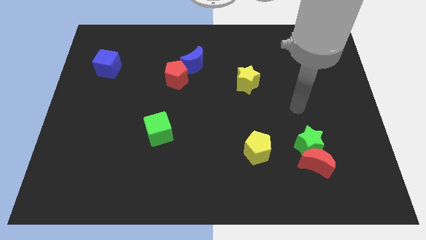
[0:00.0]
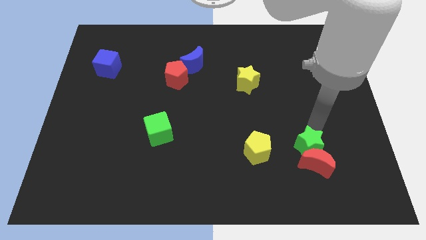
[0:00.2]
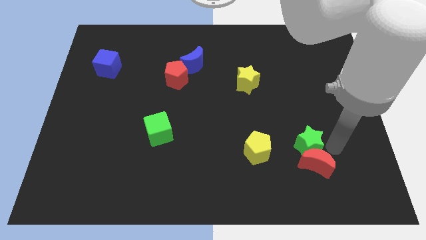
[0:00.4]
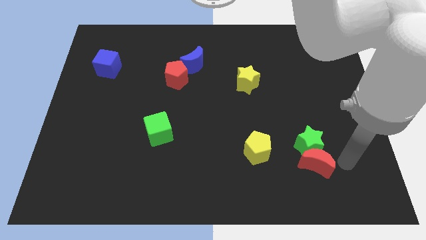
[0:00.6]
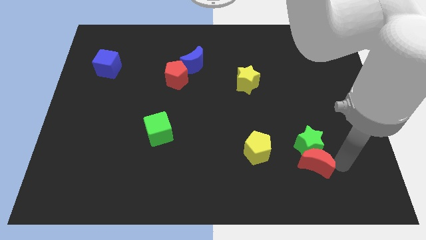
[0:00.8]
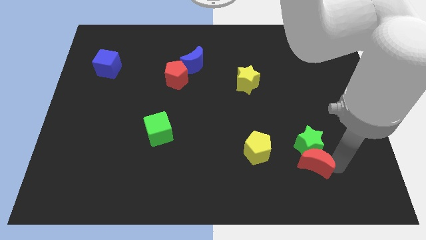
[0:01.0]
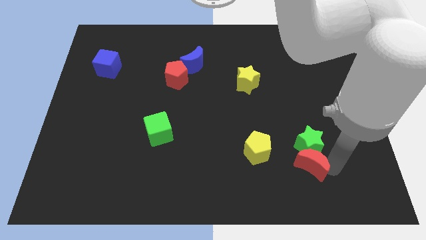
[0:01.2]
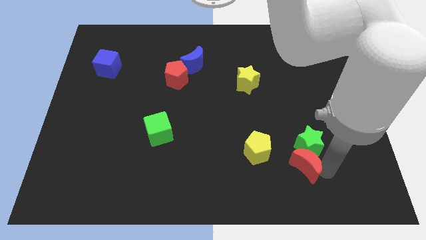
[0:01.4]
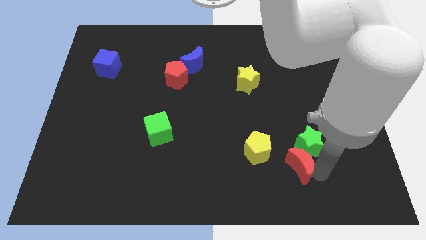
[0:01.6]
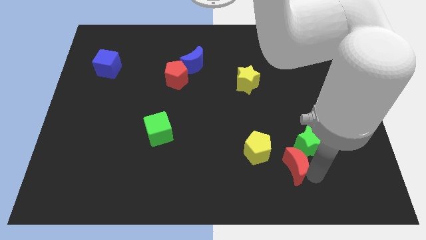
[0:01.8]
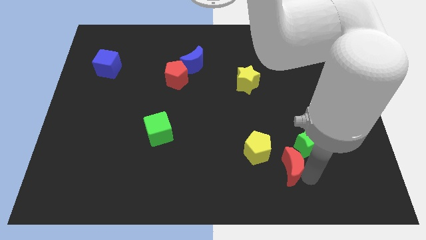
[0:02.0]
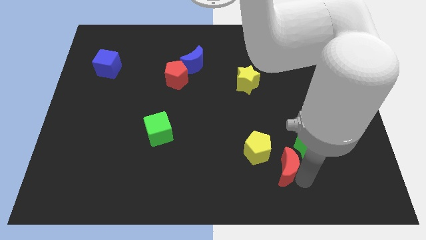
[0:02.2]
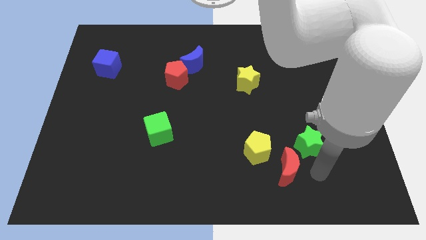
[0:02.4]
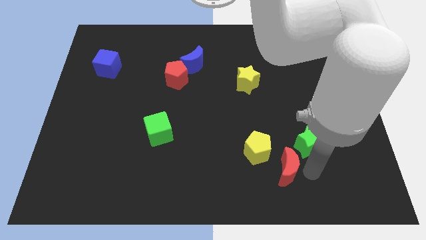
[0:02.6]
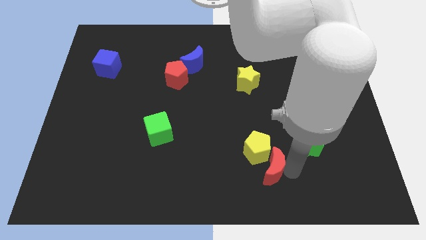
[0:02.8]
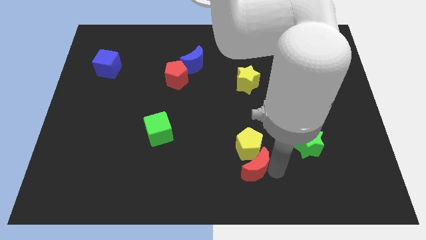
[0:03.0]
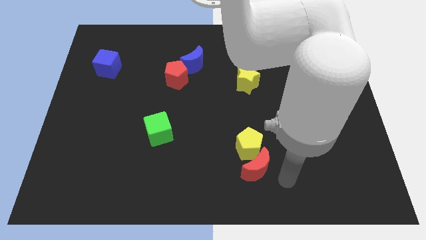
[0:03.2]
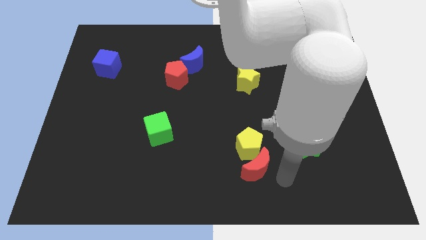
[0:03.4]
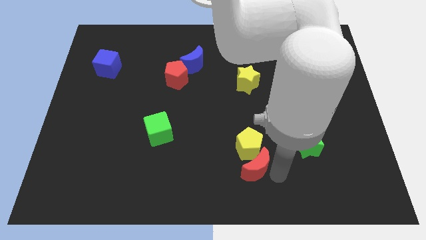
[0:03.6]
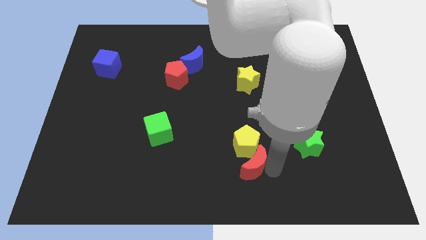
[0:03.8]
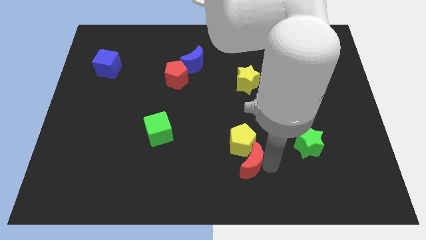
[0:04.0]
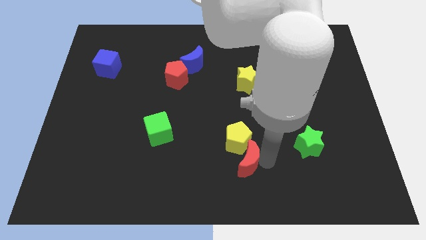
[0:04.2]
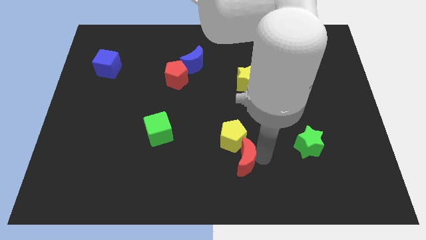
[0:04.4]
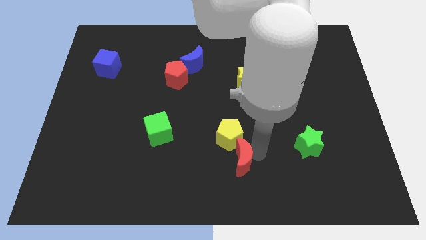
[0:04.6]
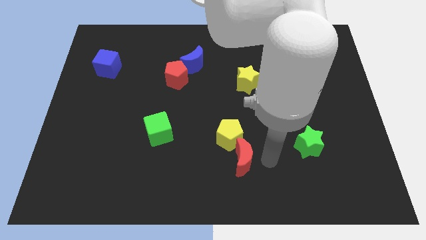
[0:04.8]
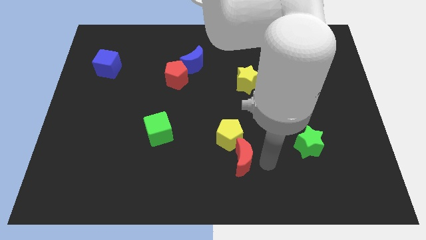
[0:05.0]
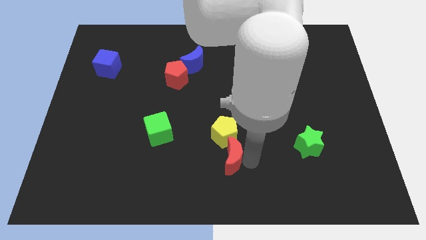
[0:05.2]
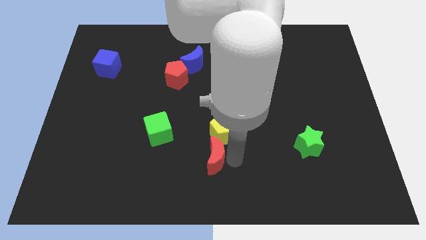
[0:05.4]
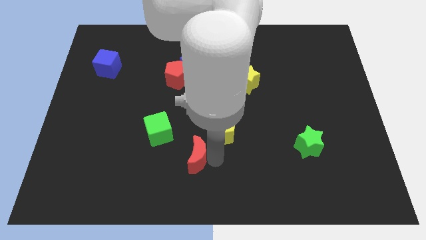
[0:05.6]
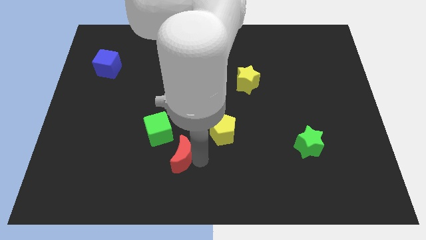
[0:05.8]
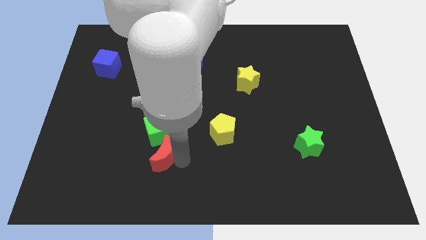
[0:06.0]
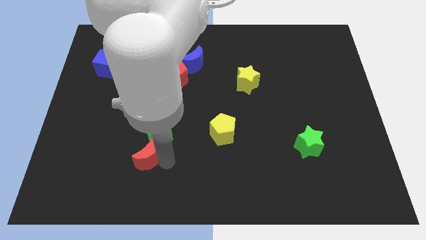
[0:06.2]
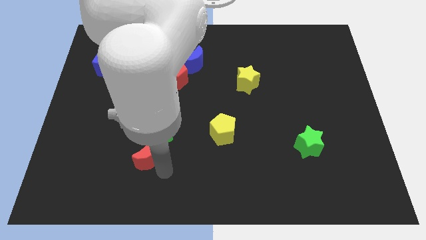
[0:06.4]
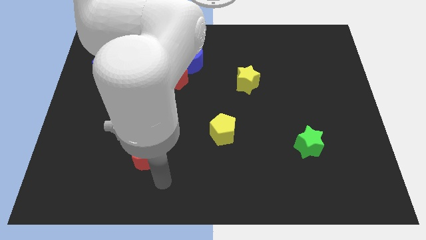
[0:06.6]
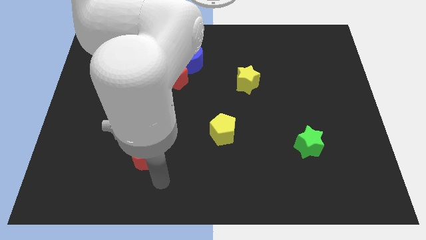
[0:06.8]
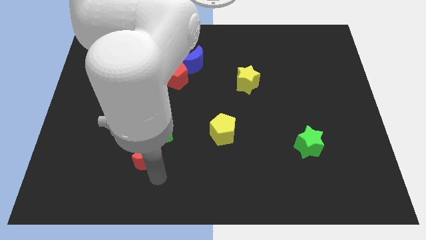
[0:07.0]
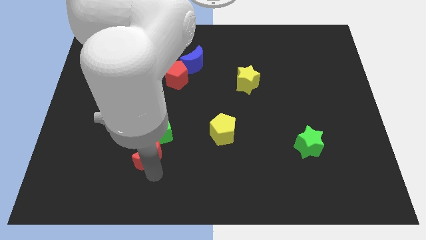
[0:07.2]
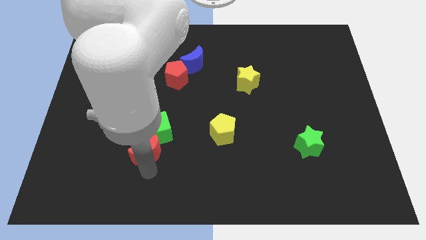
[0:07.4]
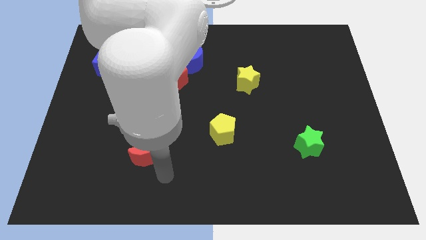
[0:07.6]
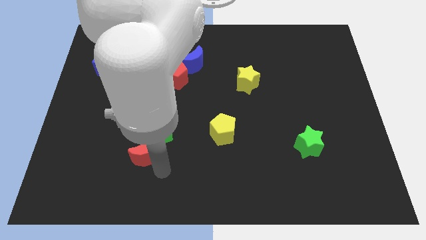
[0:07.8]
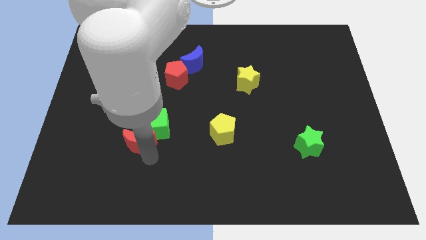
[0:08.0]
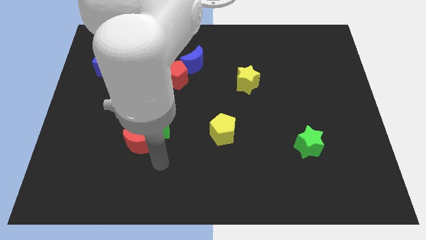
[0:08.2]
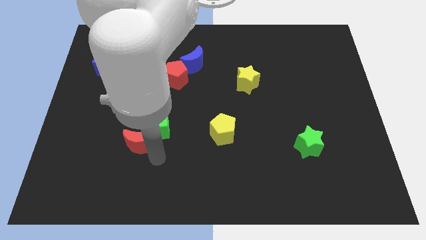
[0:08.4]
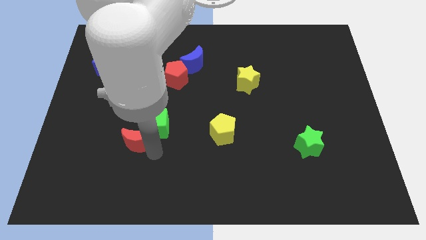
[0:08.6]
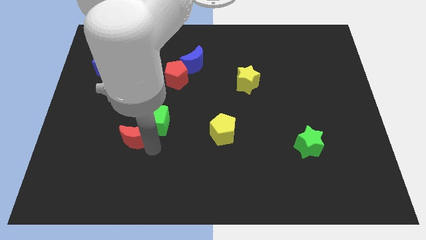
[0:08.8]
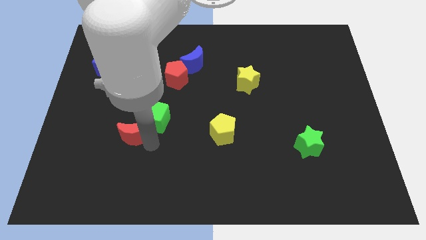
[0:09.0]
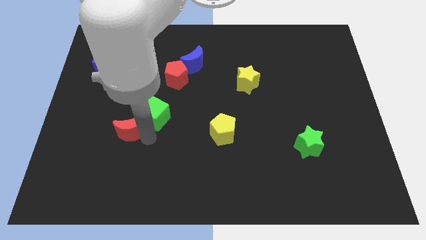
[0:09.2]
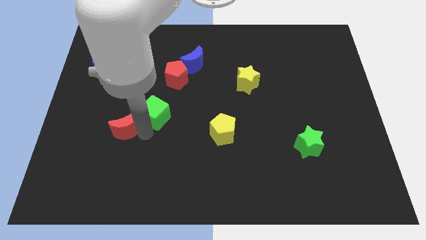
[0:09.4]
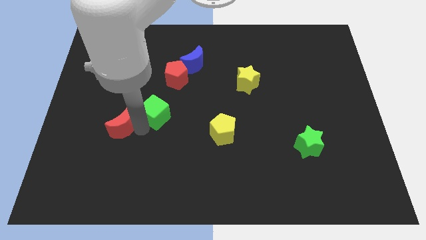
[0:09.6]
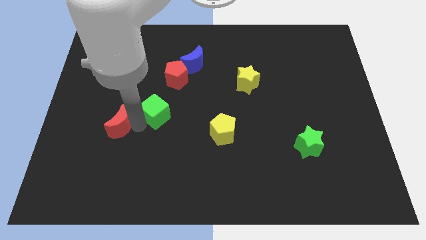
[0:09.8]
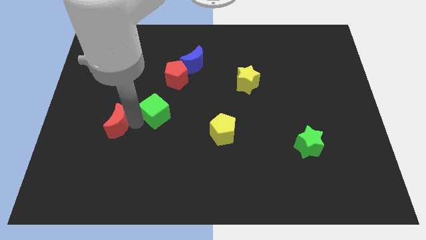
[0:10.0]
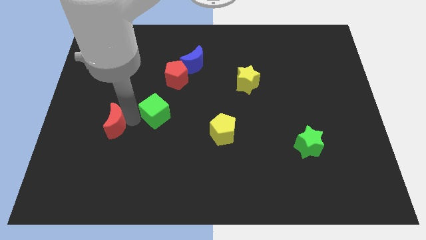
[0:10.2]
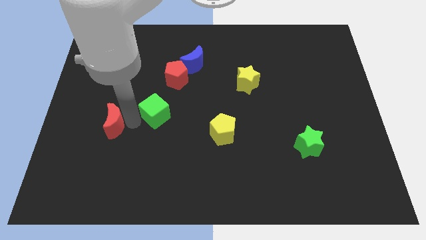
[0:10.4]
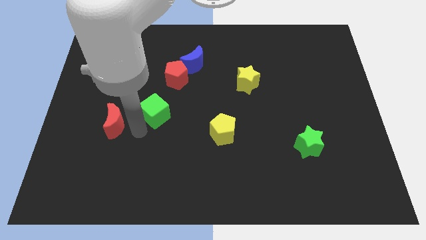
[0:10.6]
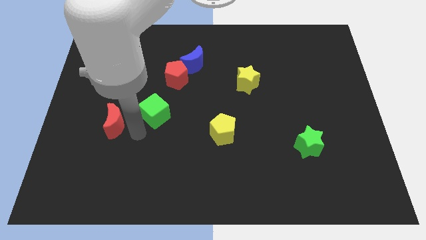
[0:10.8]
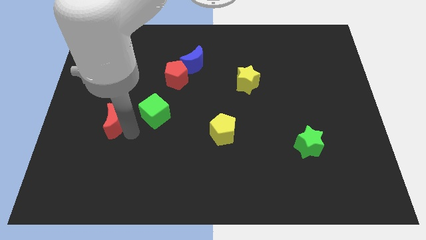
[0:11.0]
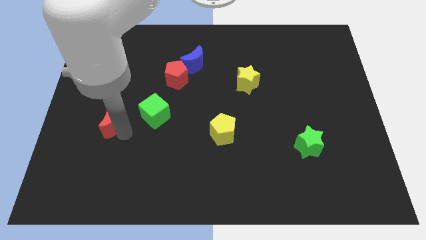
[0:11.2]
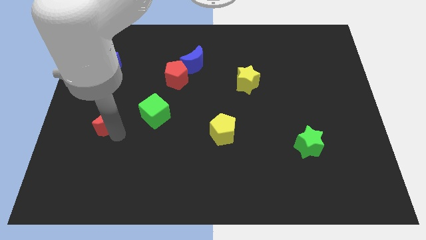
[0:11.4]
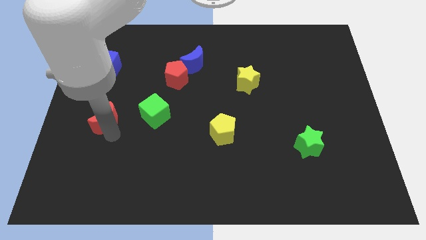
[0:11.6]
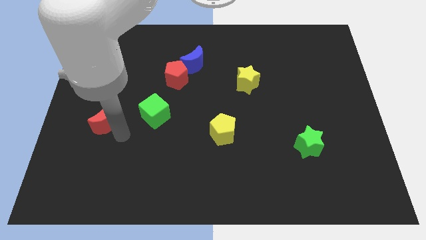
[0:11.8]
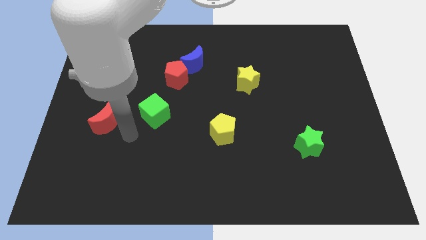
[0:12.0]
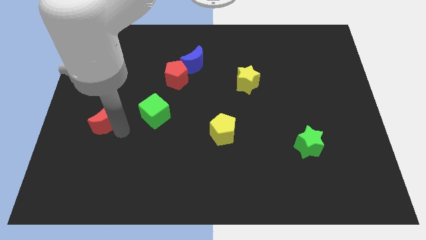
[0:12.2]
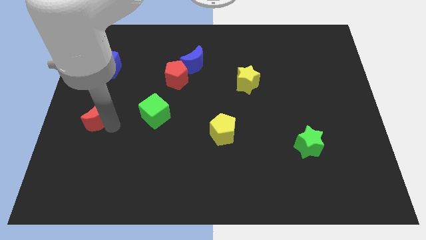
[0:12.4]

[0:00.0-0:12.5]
slide the red moon to the left side of the board
